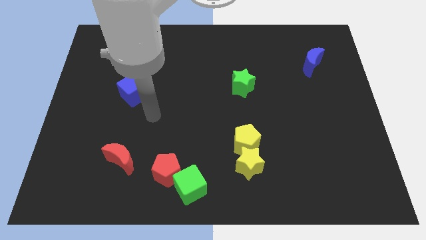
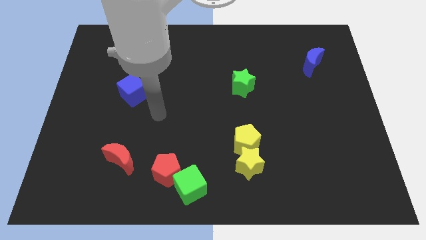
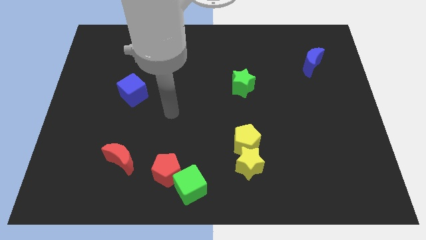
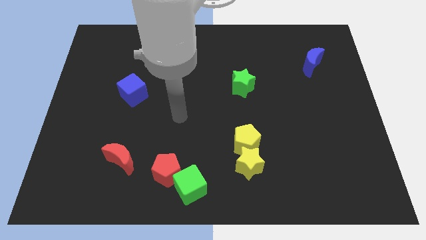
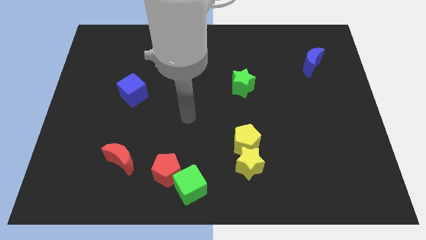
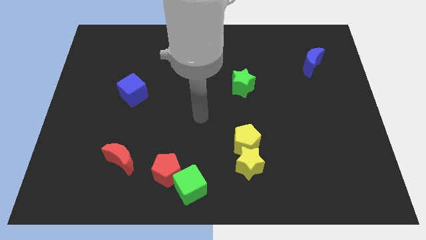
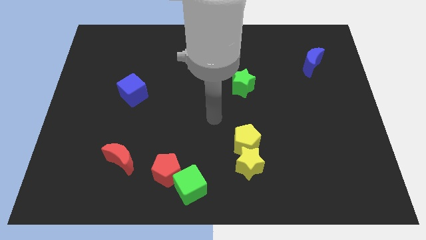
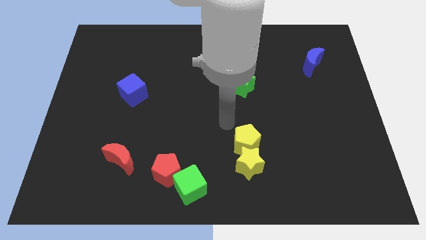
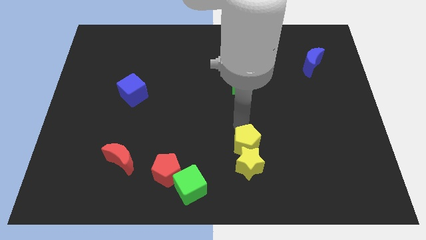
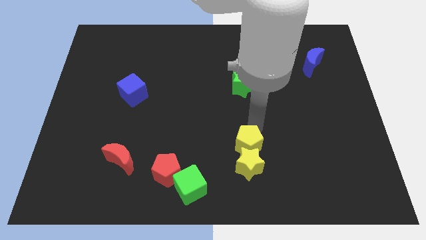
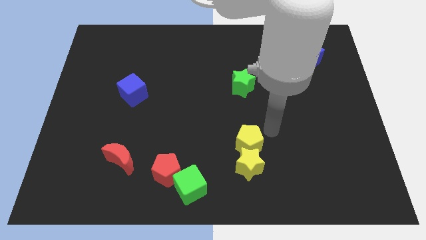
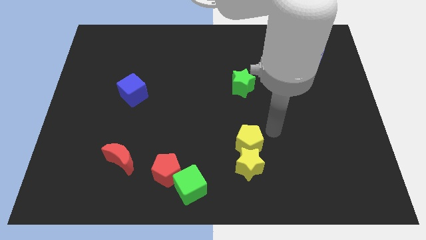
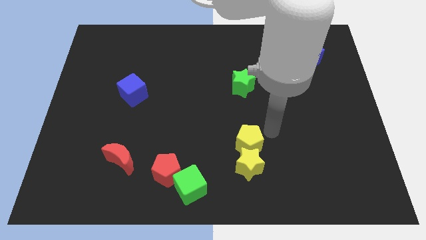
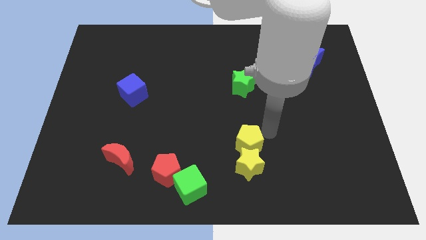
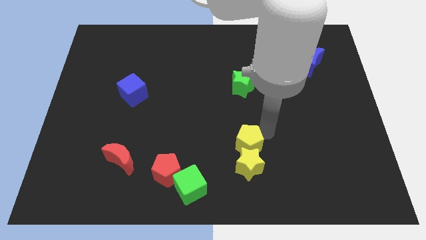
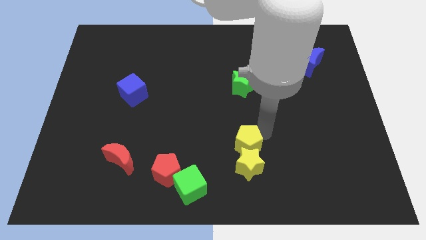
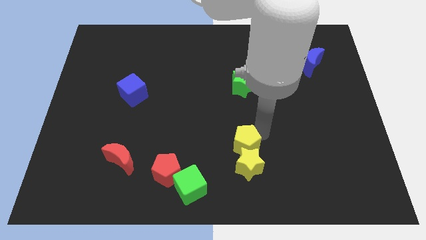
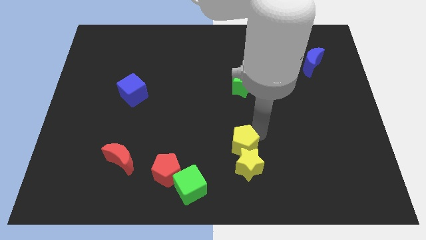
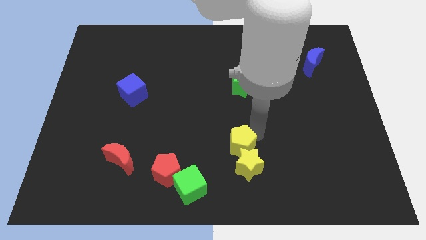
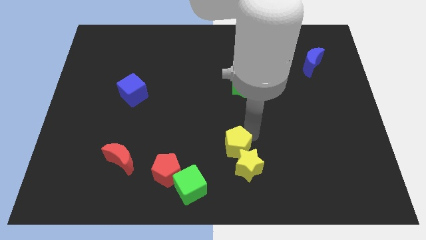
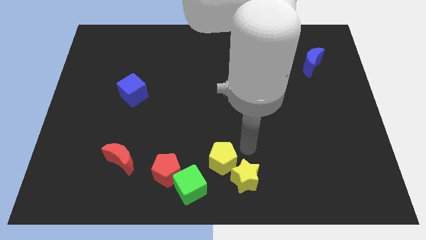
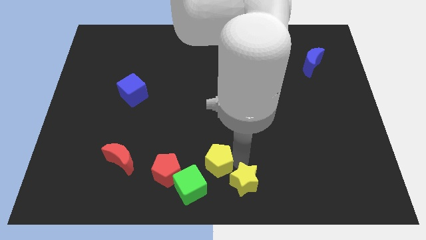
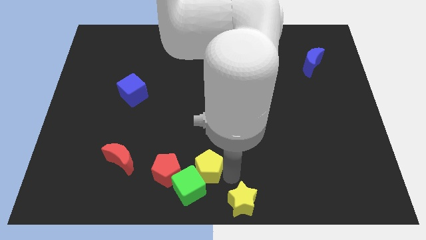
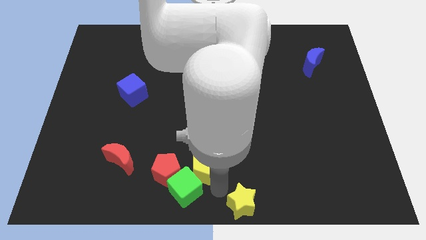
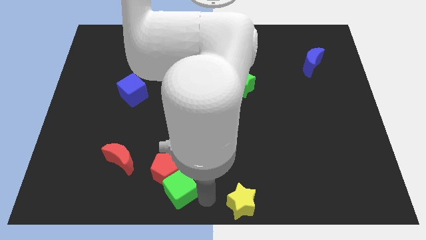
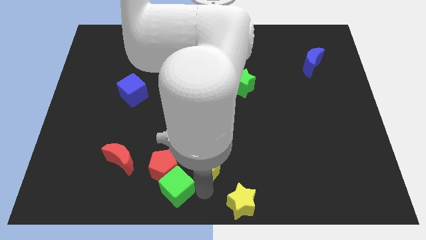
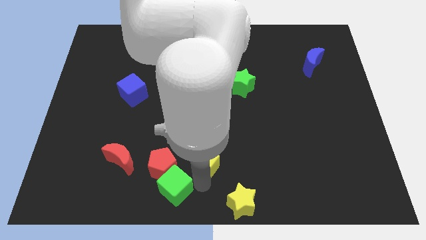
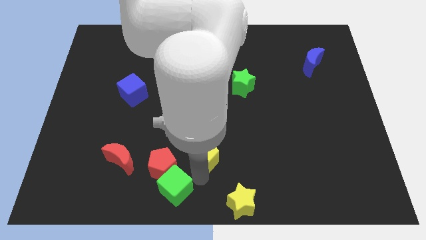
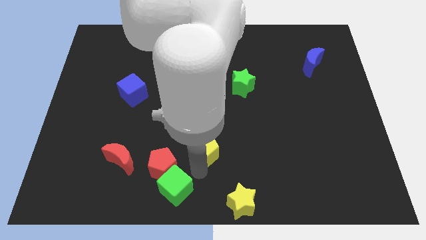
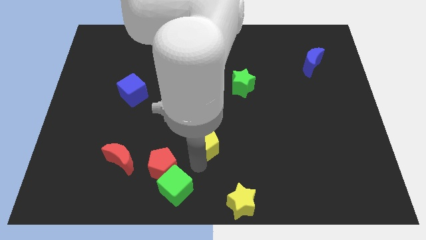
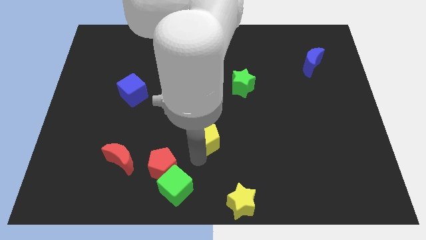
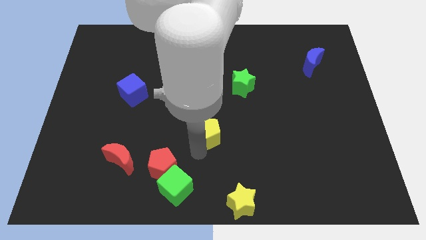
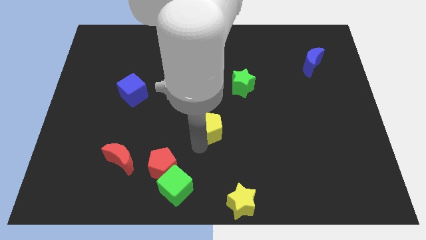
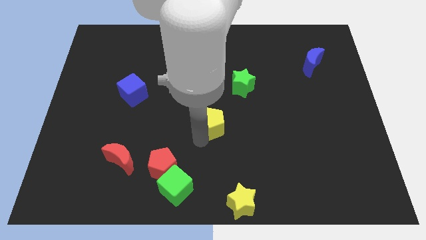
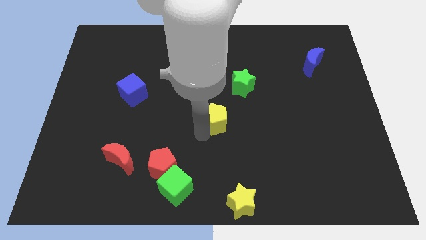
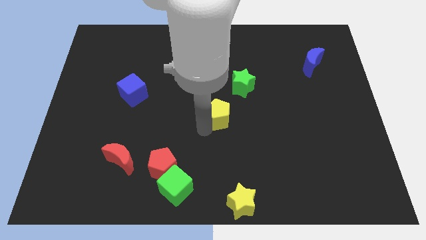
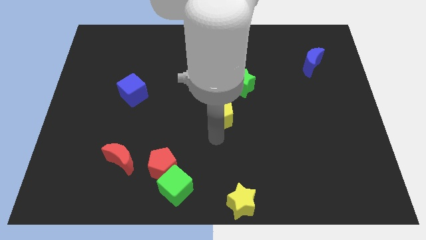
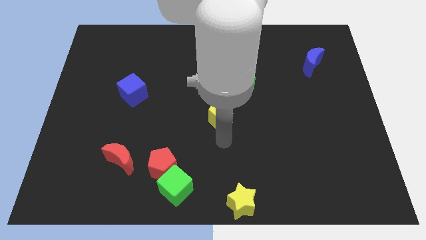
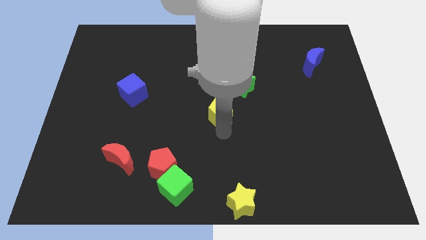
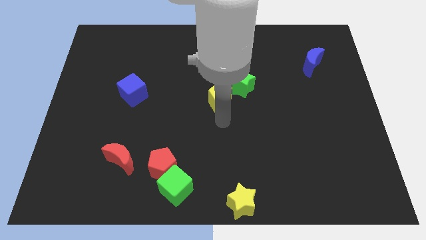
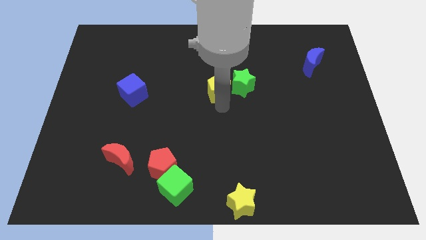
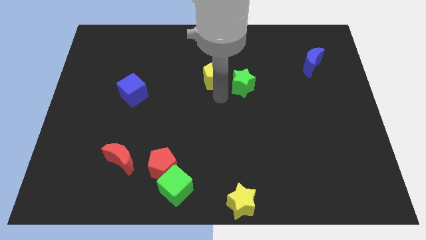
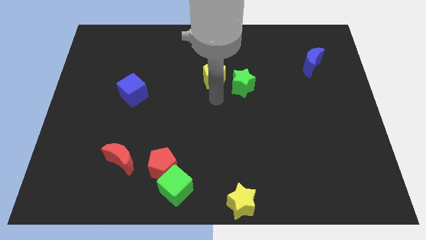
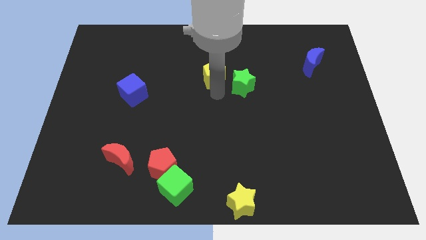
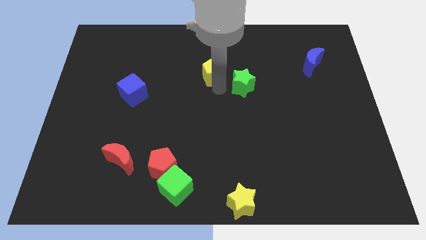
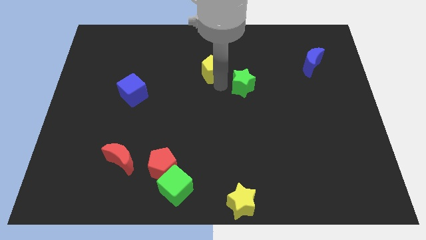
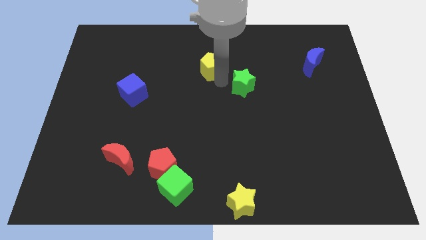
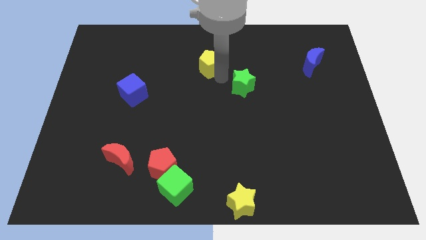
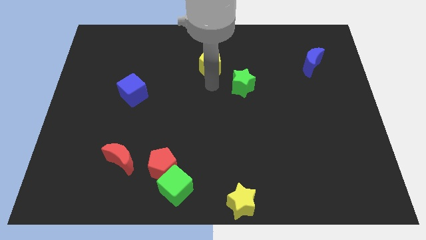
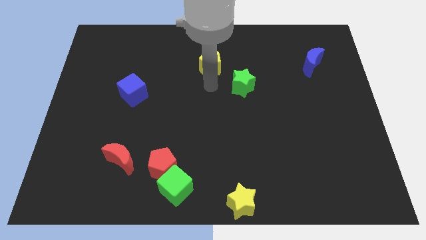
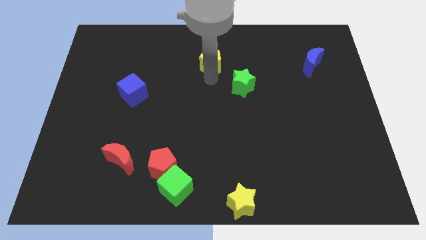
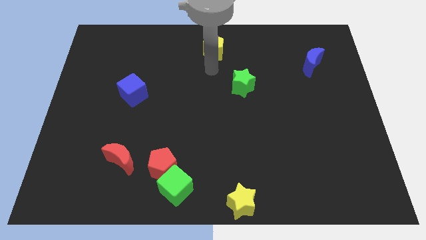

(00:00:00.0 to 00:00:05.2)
slide the yellow pentagon to the towards your base

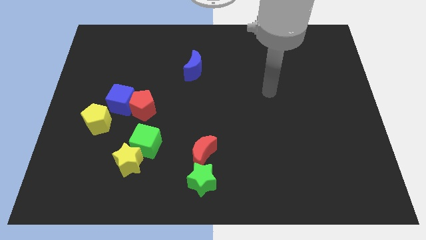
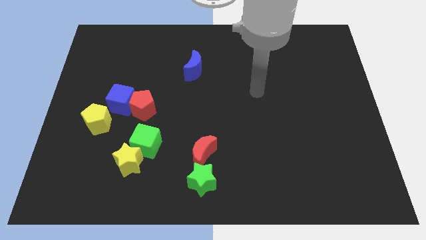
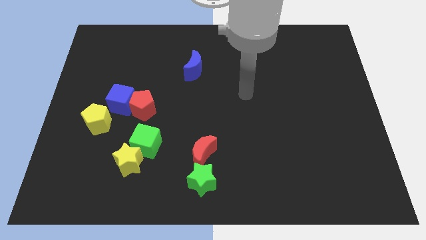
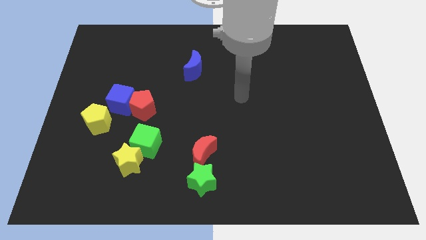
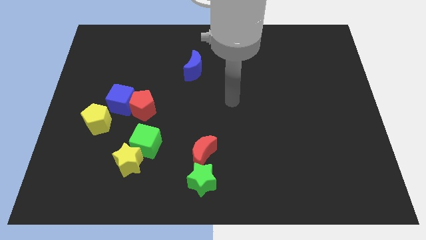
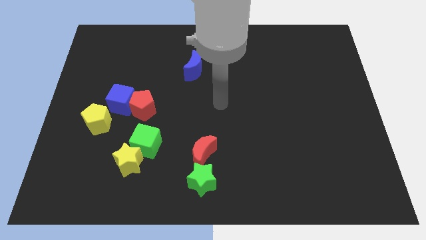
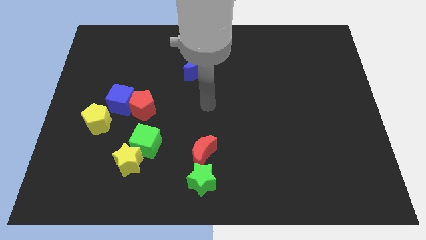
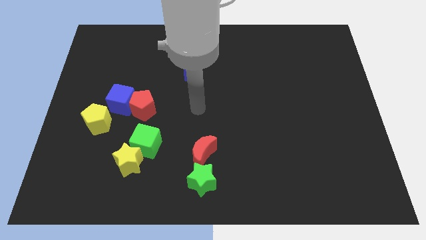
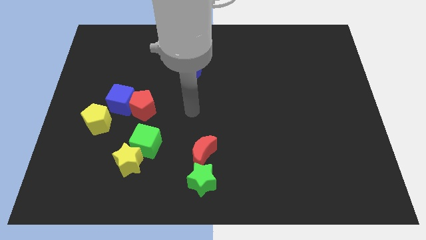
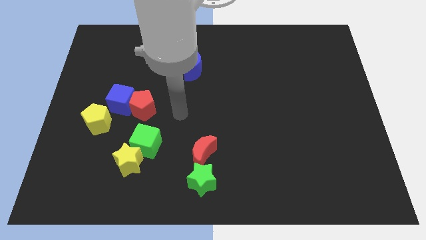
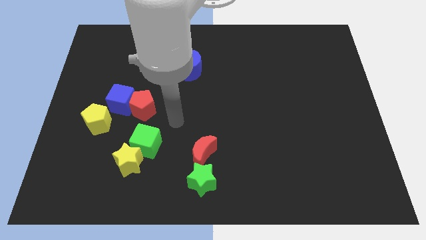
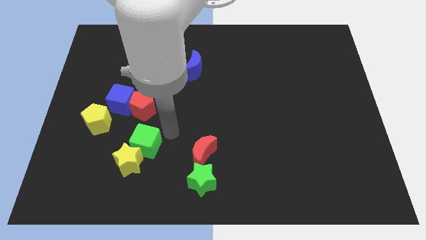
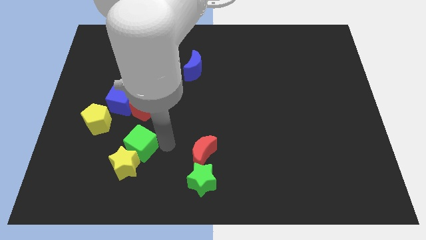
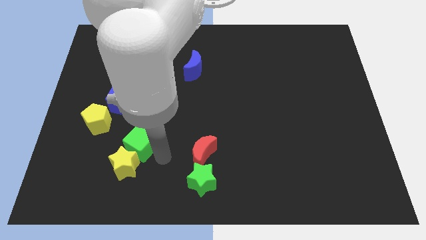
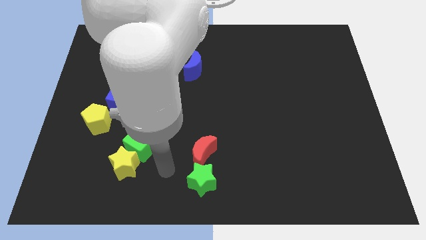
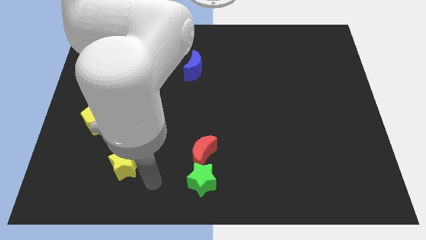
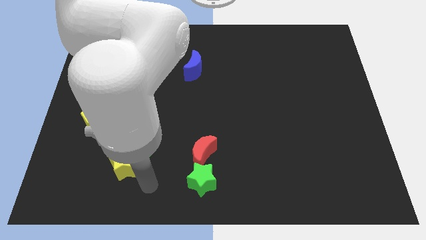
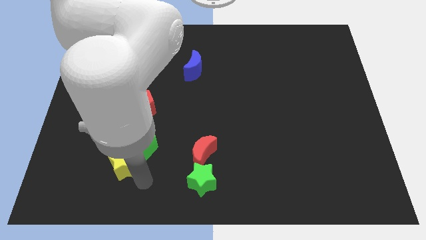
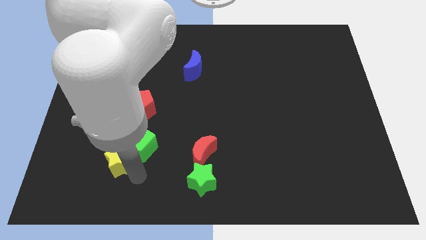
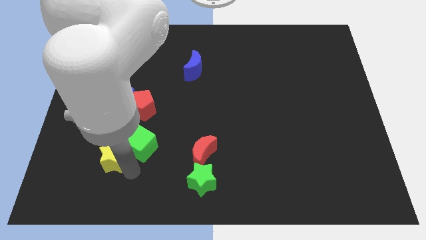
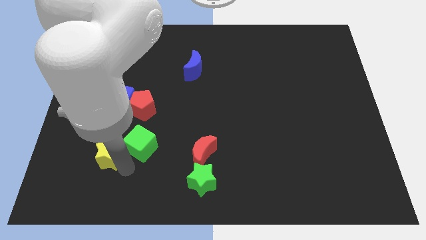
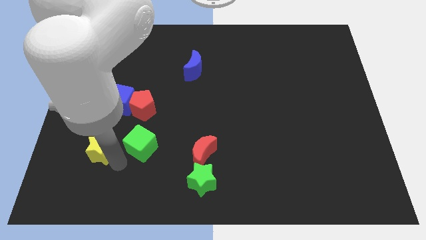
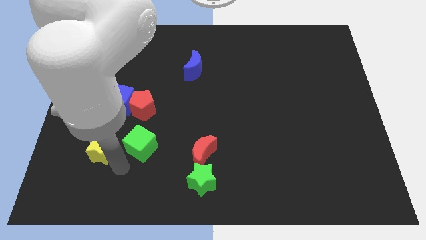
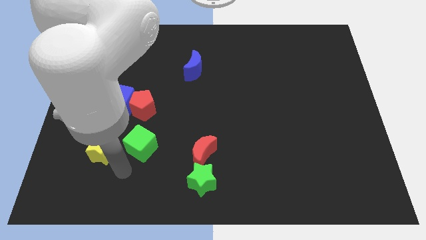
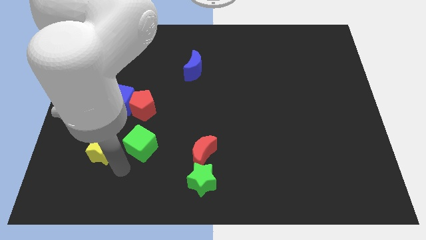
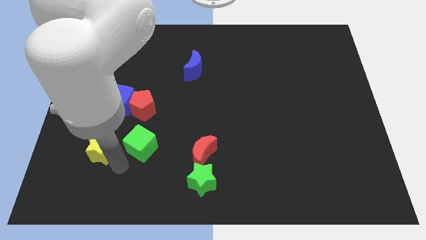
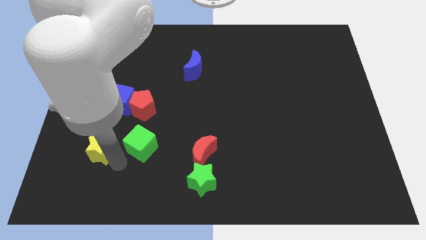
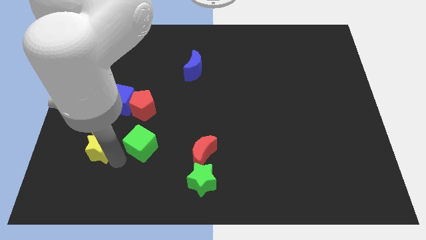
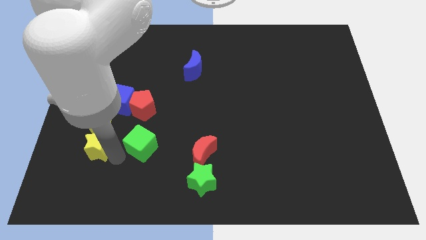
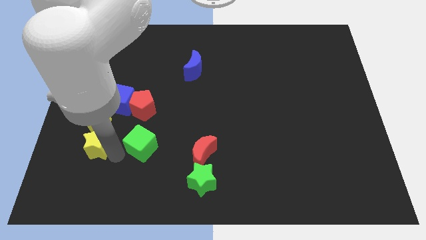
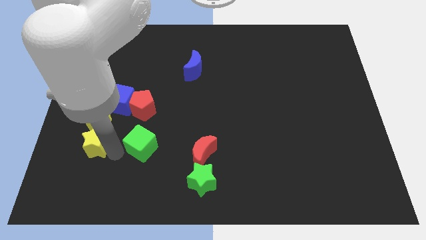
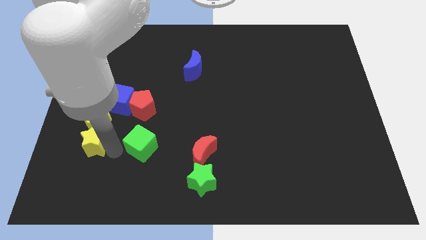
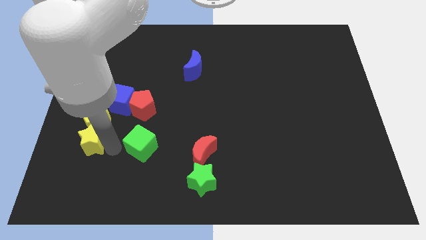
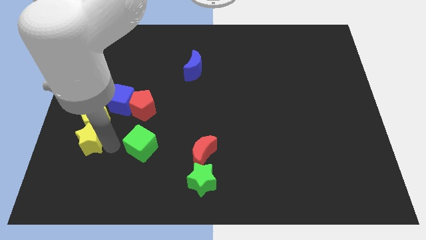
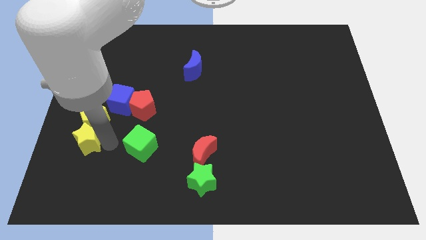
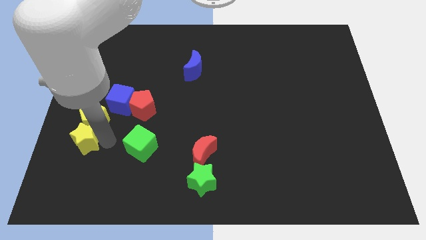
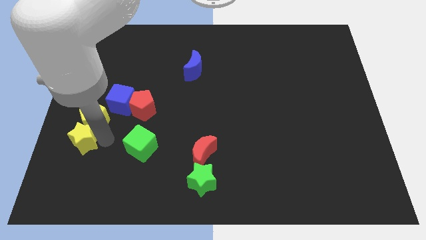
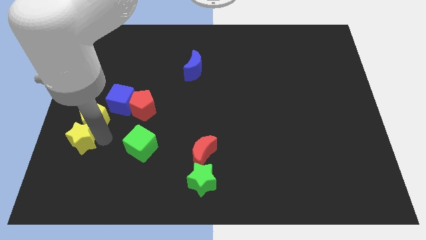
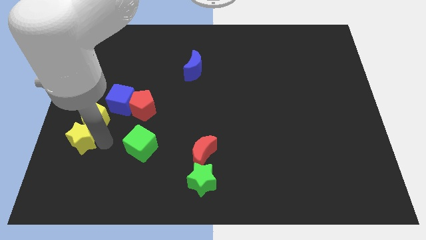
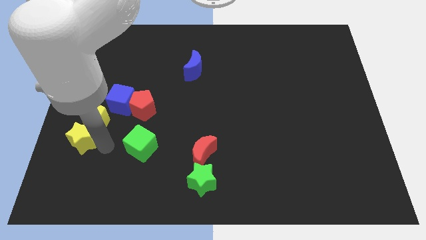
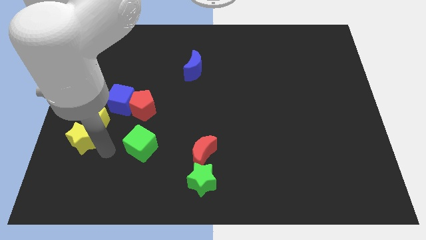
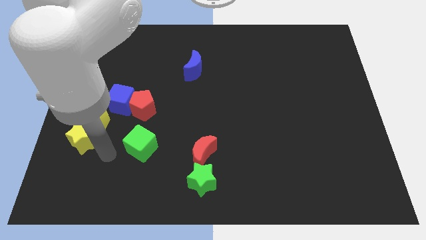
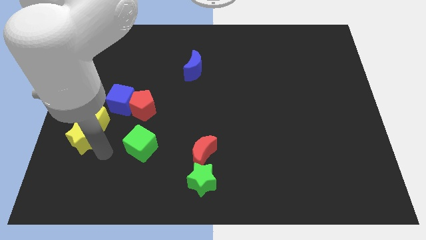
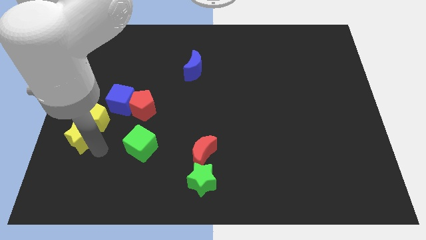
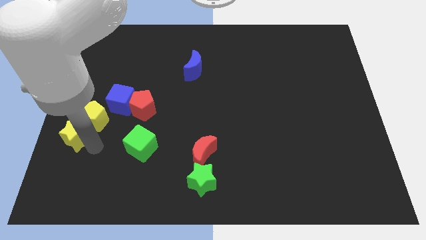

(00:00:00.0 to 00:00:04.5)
slide the yellow star to the left side
